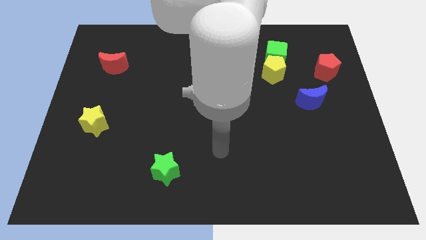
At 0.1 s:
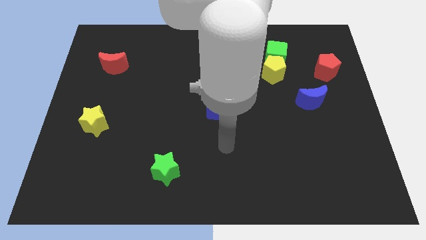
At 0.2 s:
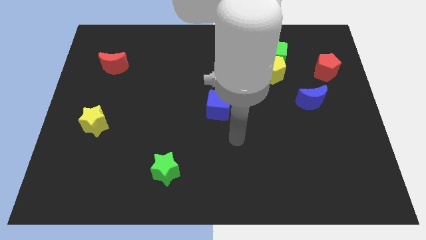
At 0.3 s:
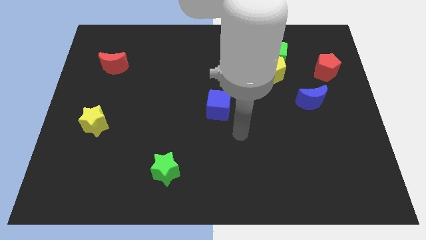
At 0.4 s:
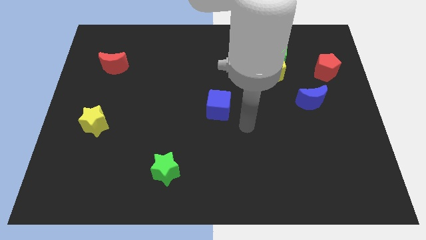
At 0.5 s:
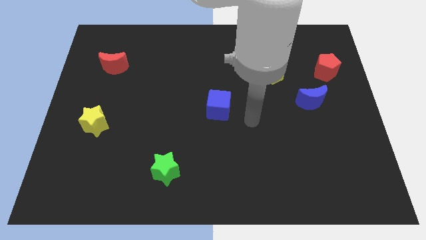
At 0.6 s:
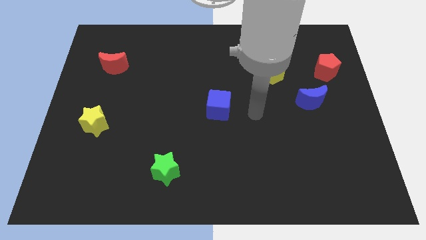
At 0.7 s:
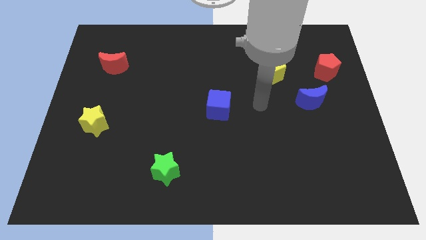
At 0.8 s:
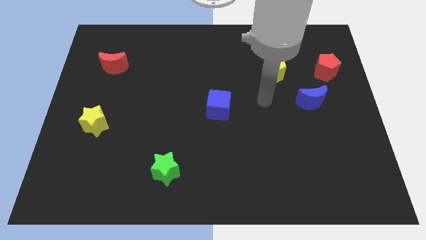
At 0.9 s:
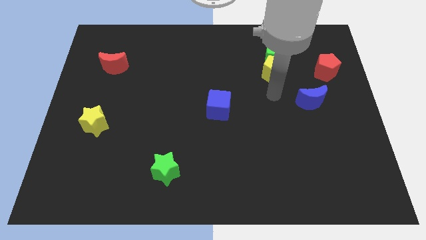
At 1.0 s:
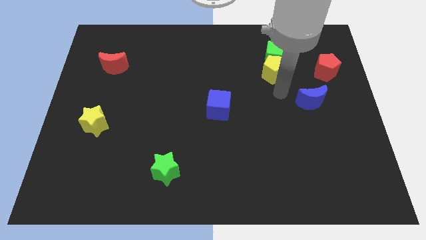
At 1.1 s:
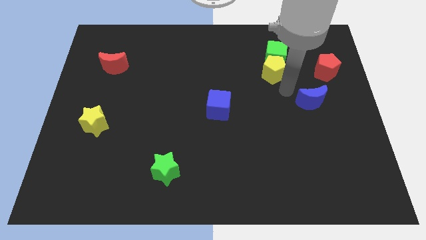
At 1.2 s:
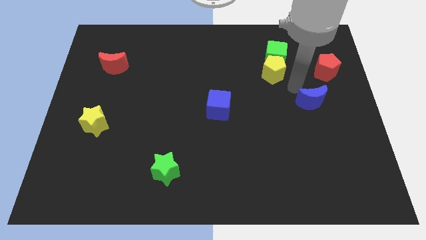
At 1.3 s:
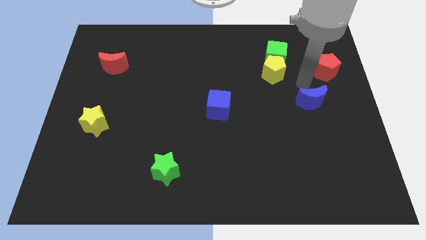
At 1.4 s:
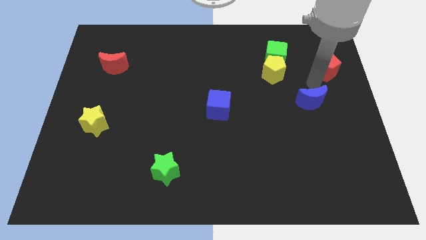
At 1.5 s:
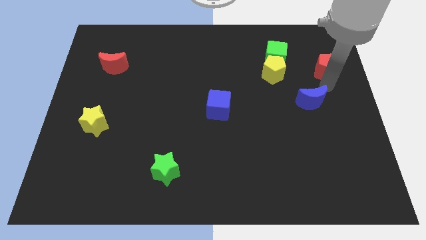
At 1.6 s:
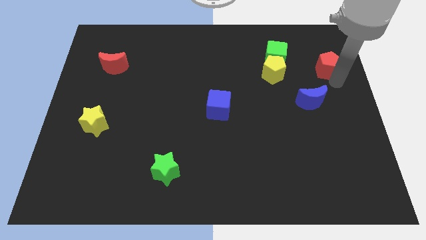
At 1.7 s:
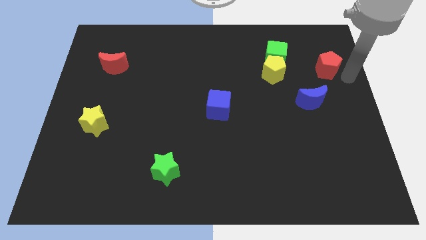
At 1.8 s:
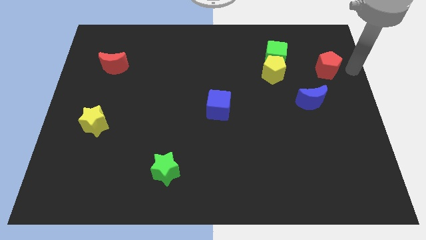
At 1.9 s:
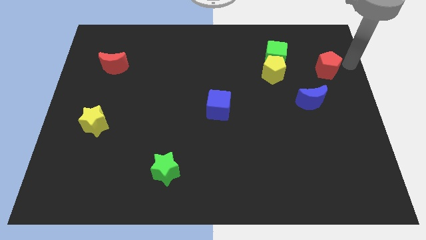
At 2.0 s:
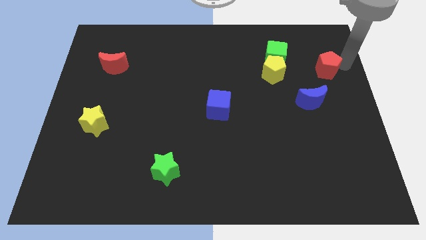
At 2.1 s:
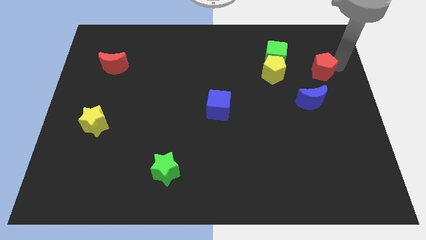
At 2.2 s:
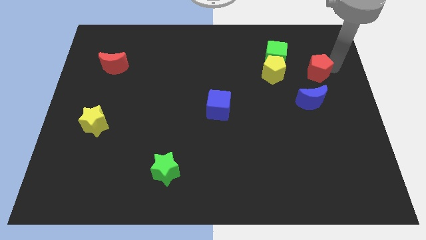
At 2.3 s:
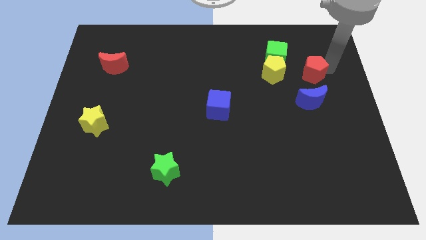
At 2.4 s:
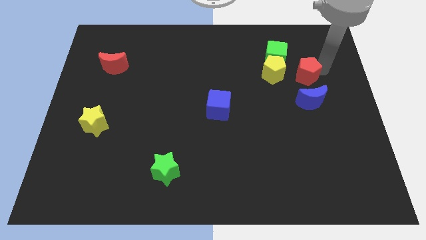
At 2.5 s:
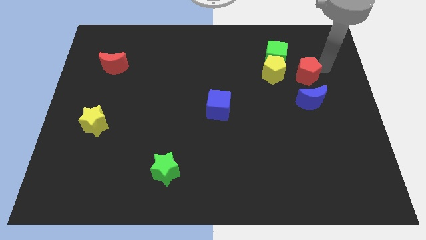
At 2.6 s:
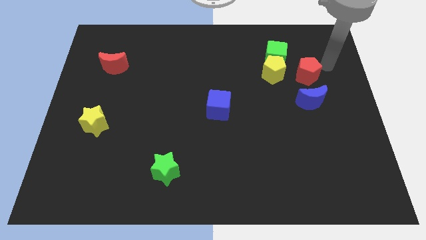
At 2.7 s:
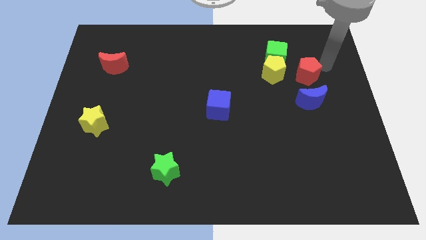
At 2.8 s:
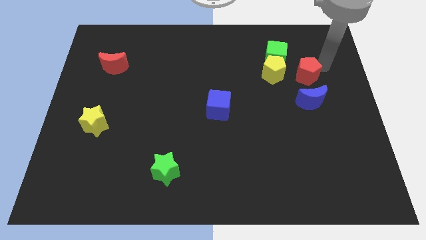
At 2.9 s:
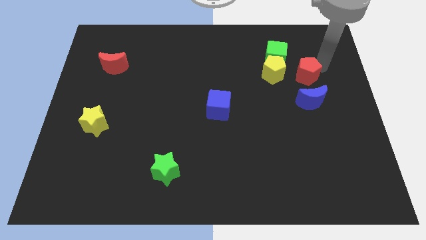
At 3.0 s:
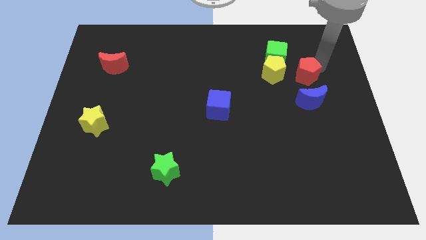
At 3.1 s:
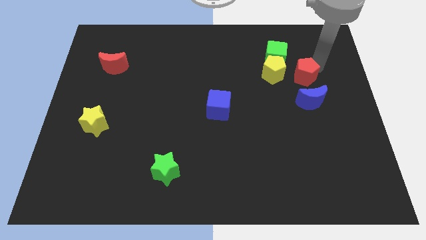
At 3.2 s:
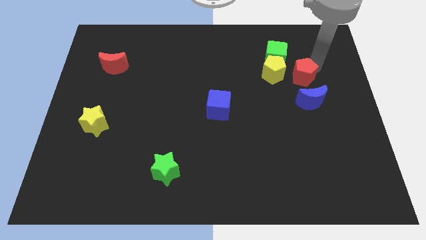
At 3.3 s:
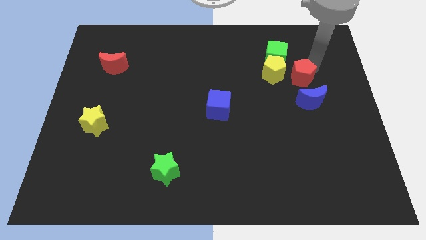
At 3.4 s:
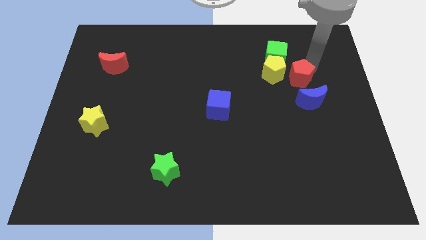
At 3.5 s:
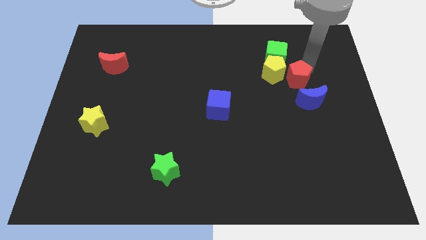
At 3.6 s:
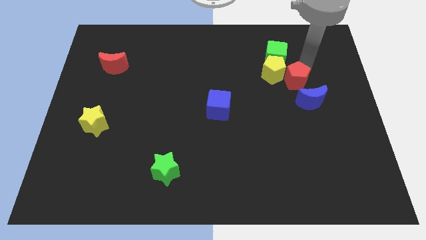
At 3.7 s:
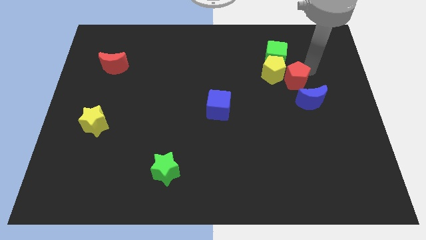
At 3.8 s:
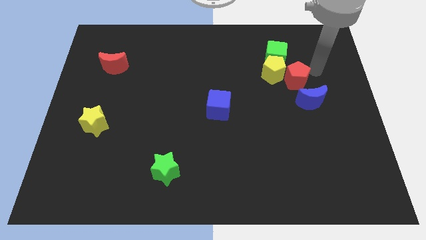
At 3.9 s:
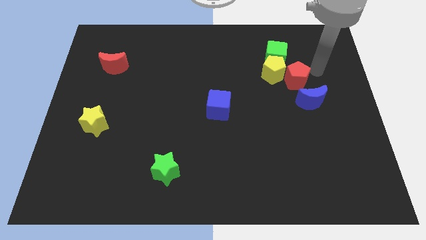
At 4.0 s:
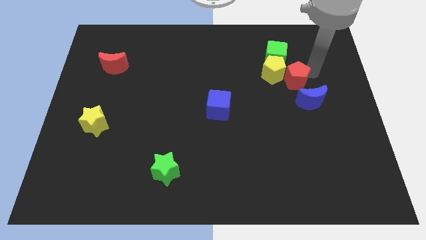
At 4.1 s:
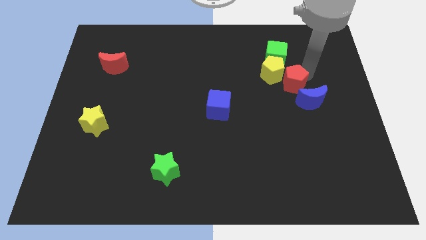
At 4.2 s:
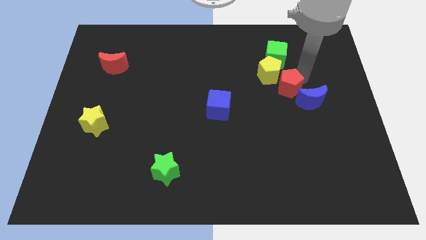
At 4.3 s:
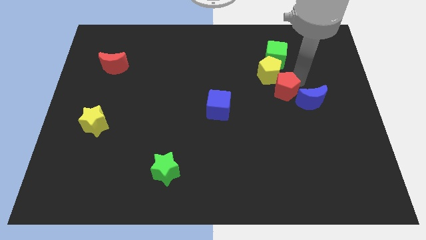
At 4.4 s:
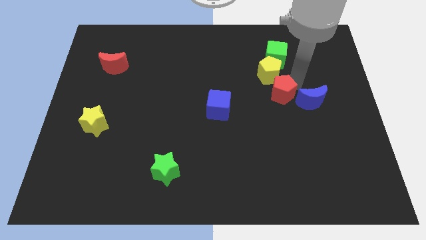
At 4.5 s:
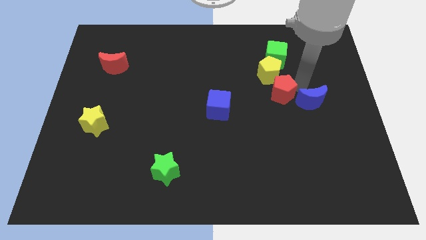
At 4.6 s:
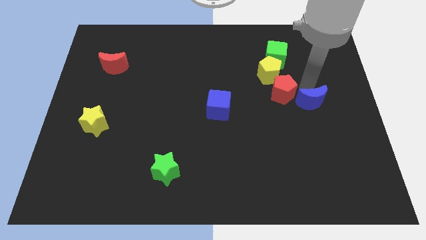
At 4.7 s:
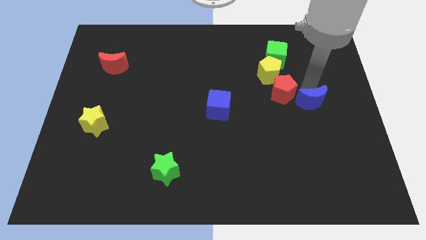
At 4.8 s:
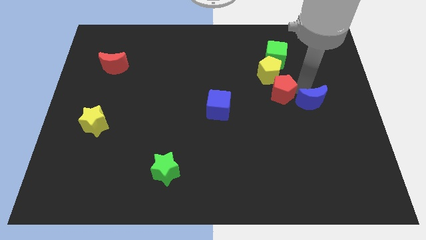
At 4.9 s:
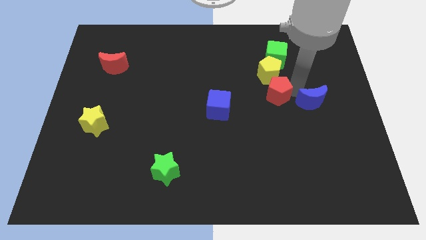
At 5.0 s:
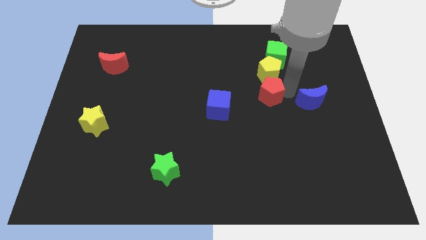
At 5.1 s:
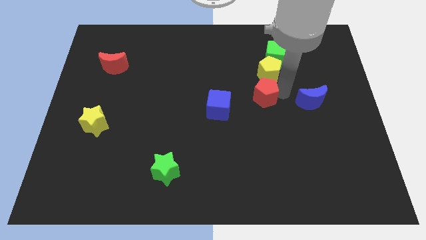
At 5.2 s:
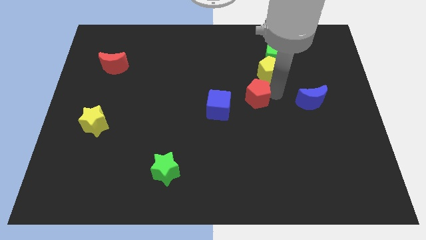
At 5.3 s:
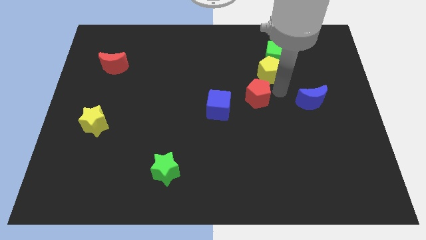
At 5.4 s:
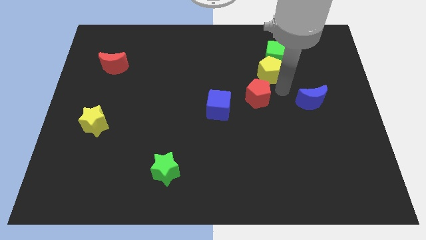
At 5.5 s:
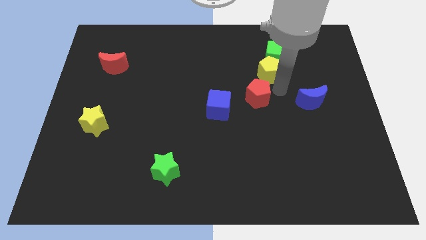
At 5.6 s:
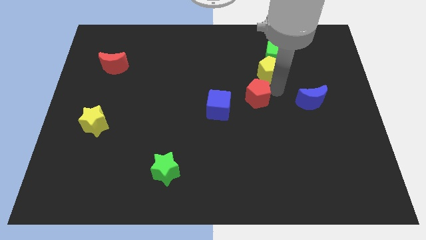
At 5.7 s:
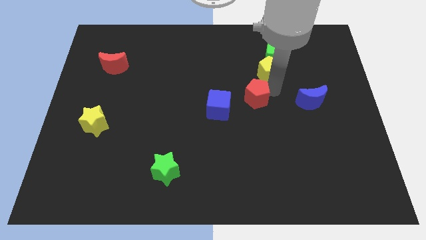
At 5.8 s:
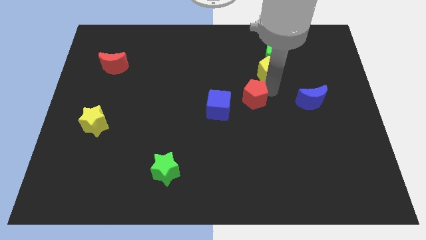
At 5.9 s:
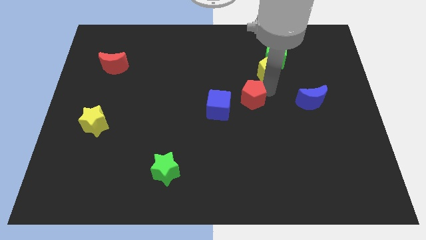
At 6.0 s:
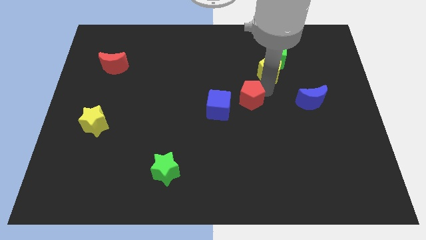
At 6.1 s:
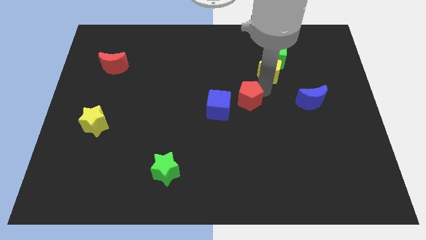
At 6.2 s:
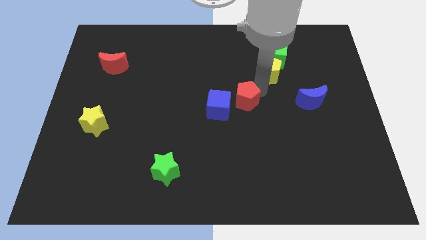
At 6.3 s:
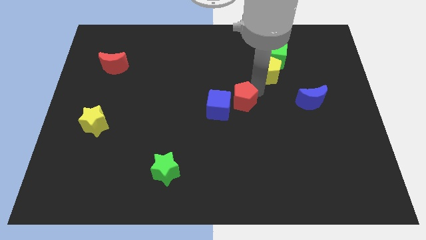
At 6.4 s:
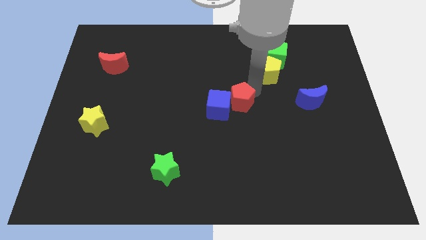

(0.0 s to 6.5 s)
move the red pentagon towards the blue cube

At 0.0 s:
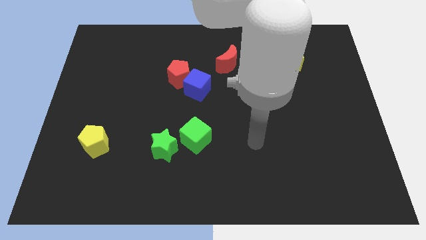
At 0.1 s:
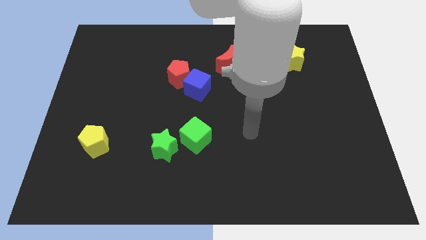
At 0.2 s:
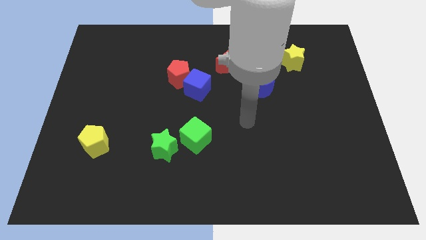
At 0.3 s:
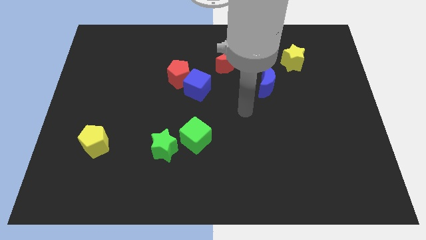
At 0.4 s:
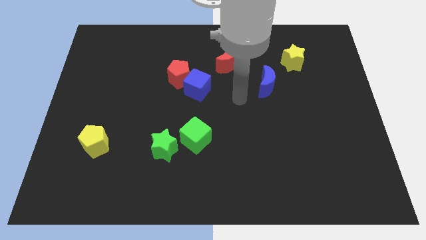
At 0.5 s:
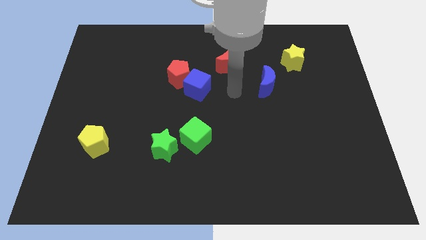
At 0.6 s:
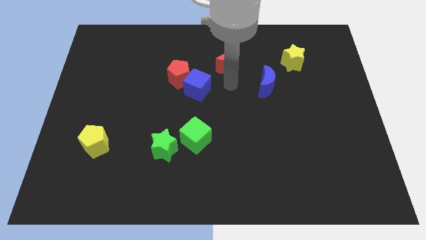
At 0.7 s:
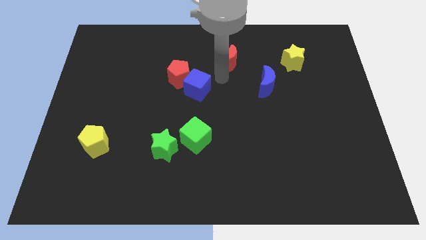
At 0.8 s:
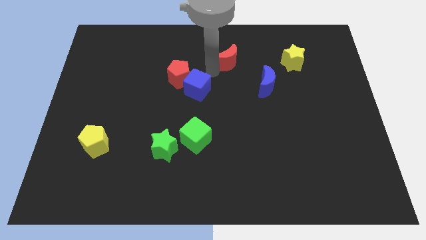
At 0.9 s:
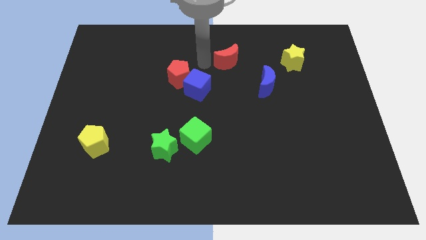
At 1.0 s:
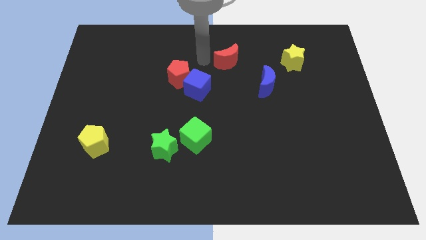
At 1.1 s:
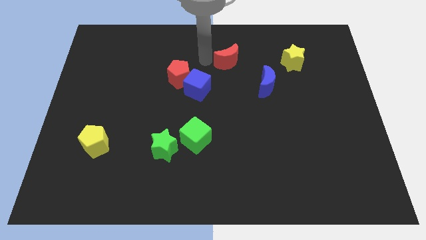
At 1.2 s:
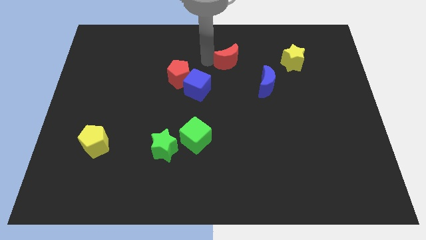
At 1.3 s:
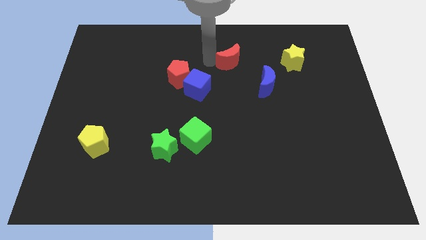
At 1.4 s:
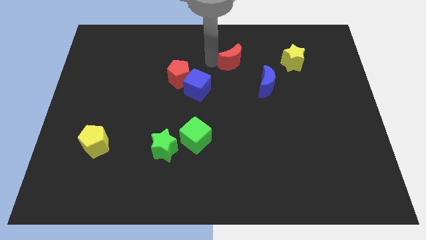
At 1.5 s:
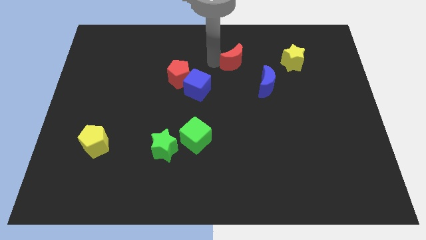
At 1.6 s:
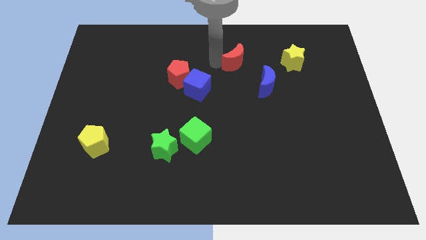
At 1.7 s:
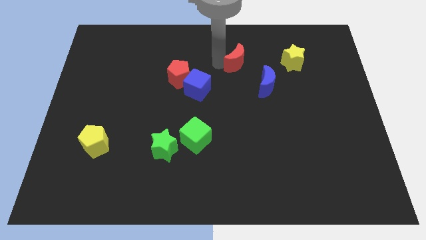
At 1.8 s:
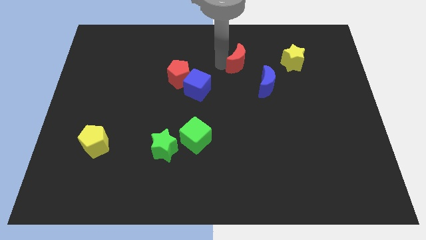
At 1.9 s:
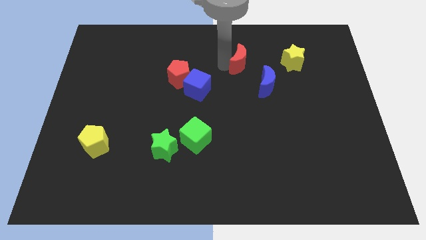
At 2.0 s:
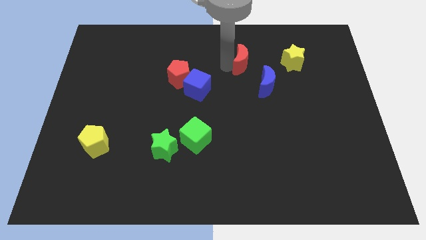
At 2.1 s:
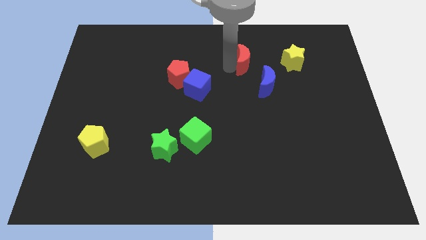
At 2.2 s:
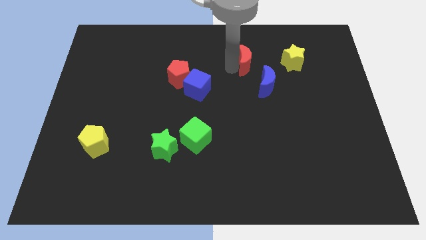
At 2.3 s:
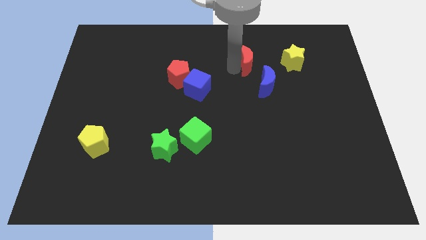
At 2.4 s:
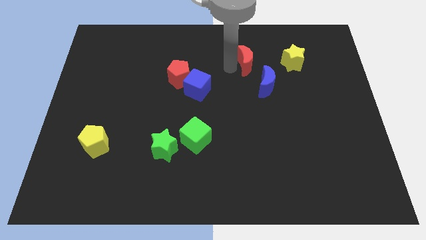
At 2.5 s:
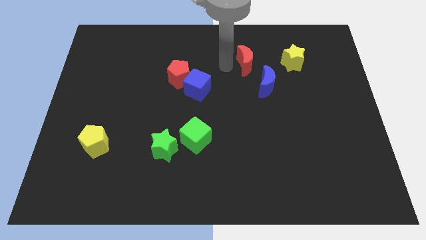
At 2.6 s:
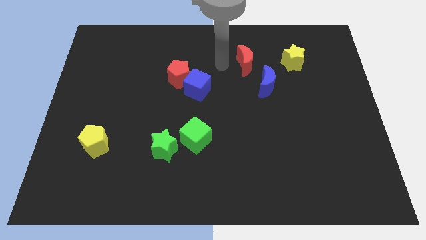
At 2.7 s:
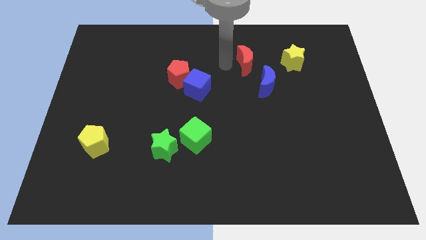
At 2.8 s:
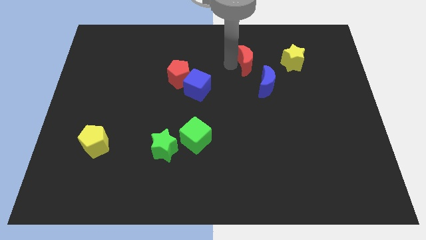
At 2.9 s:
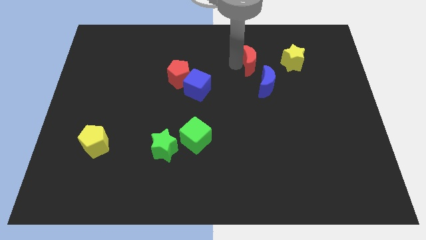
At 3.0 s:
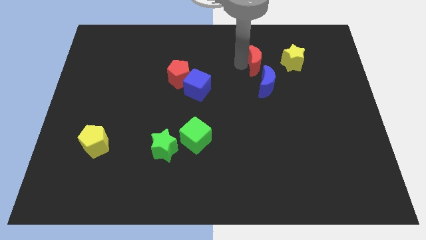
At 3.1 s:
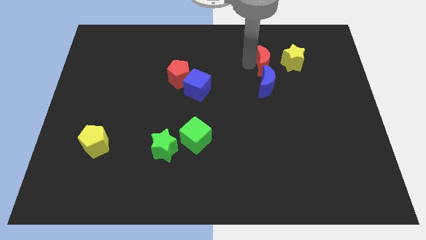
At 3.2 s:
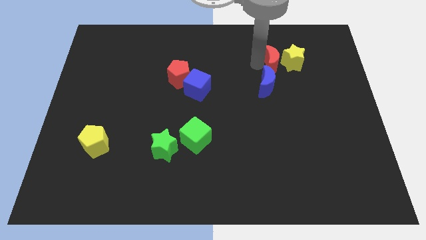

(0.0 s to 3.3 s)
move the red moon next to the yellow star
